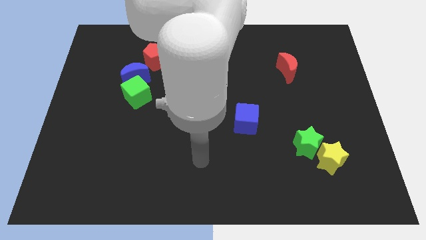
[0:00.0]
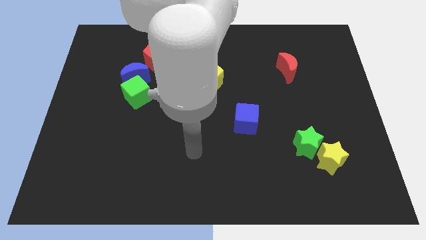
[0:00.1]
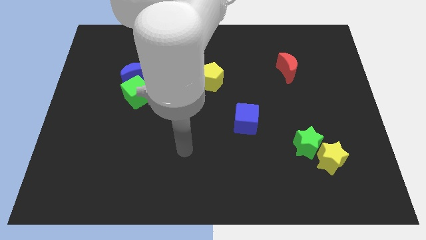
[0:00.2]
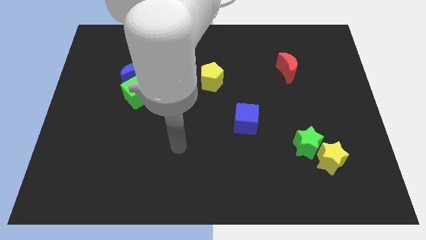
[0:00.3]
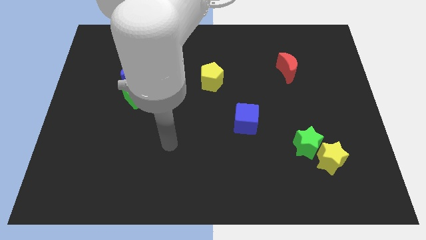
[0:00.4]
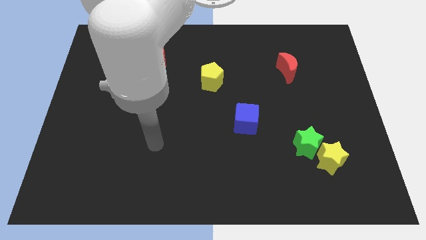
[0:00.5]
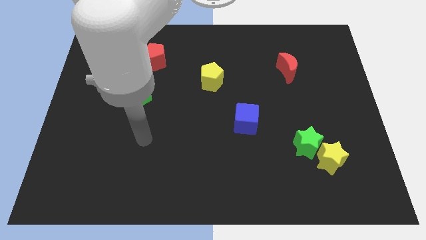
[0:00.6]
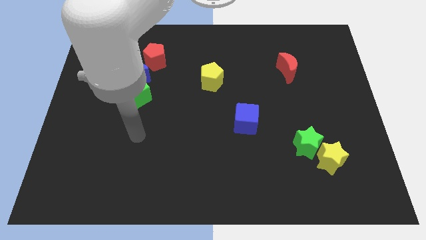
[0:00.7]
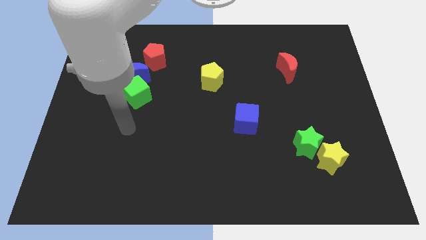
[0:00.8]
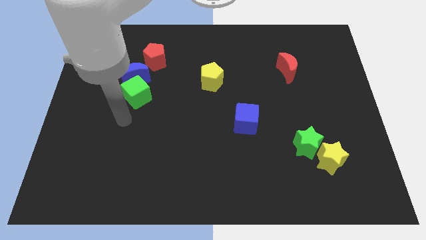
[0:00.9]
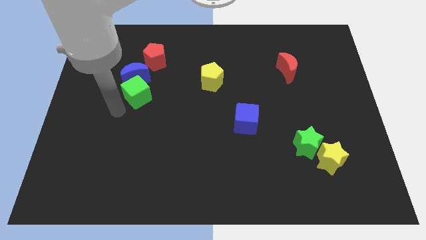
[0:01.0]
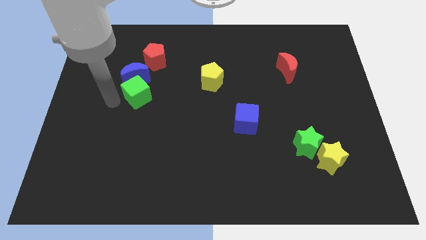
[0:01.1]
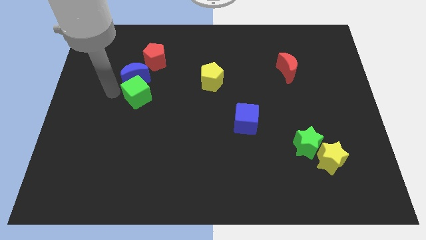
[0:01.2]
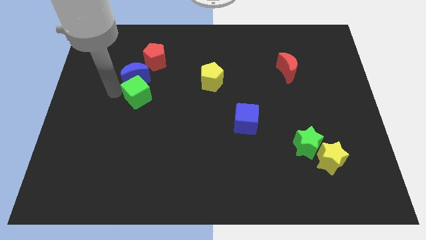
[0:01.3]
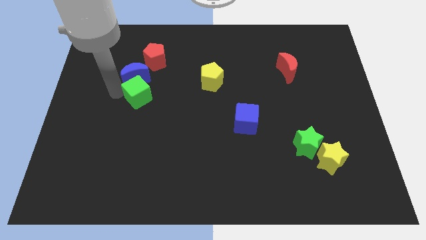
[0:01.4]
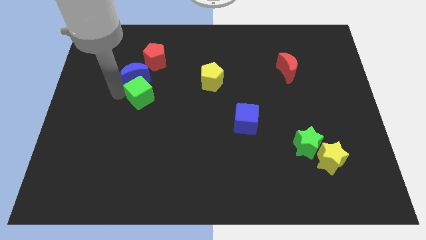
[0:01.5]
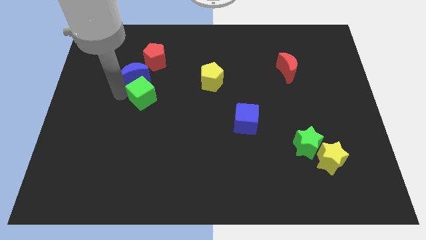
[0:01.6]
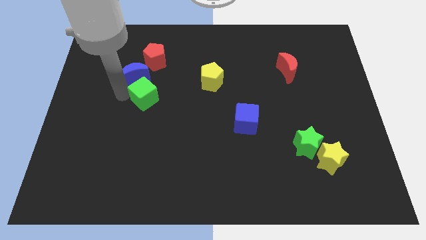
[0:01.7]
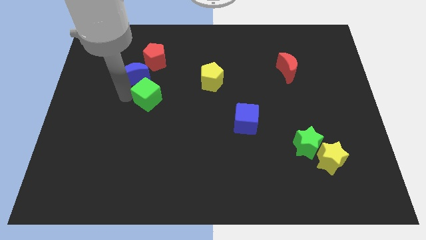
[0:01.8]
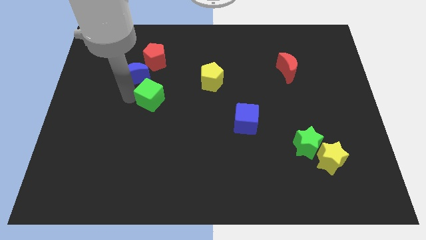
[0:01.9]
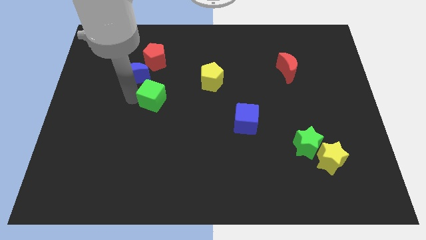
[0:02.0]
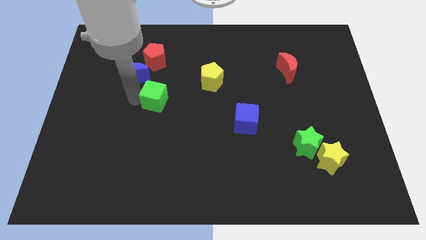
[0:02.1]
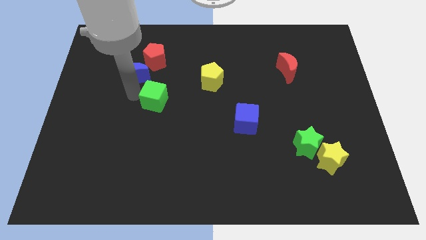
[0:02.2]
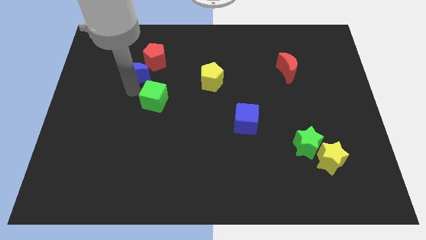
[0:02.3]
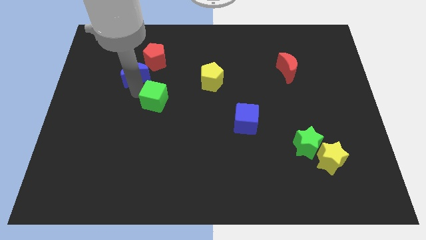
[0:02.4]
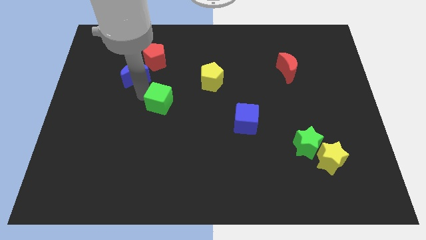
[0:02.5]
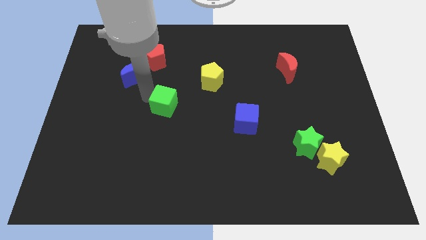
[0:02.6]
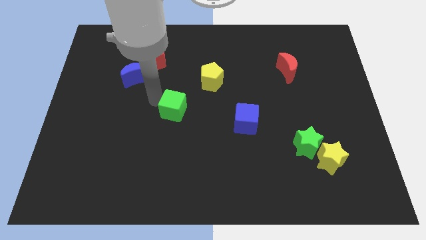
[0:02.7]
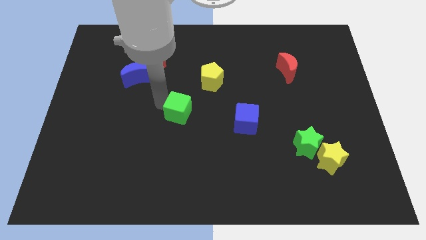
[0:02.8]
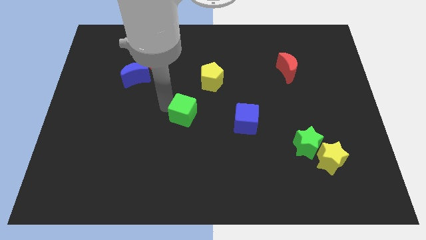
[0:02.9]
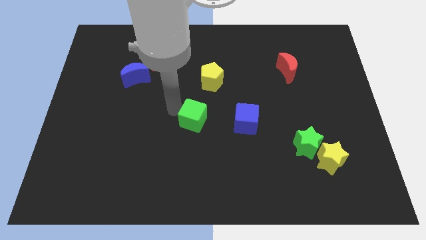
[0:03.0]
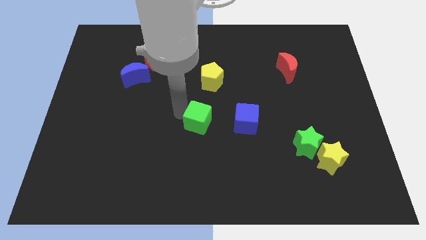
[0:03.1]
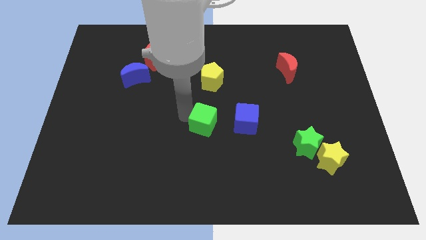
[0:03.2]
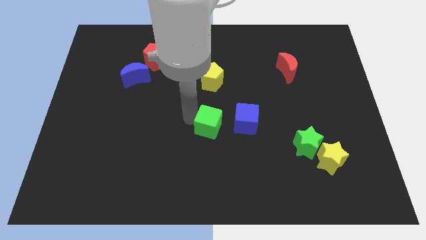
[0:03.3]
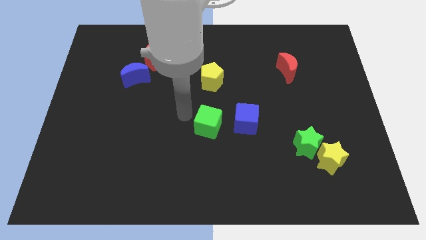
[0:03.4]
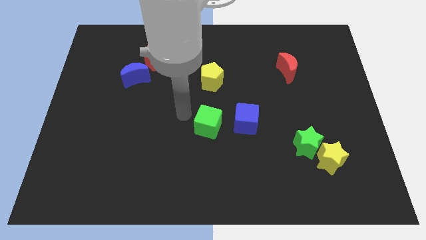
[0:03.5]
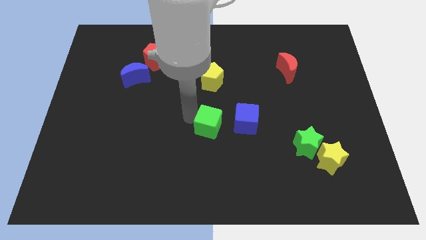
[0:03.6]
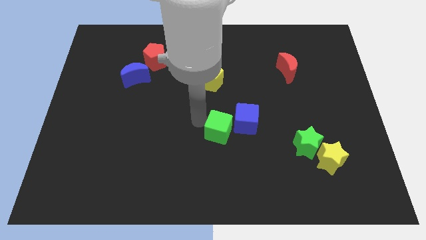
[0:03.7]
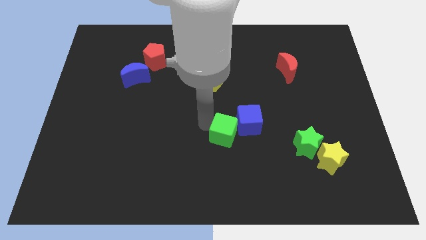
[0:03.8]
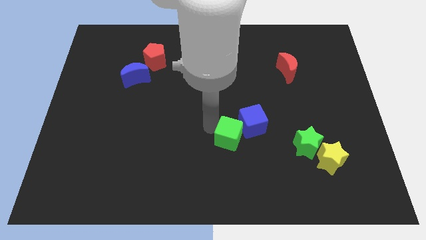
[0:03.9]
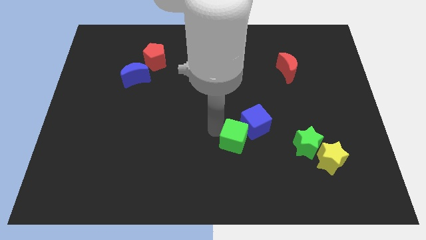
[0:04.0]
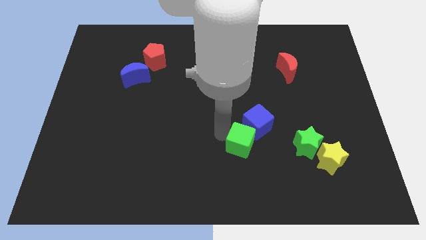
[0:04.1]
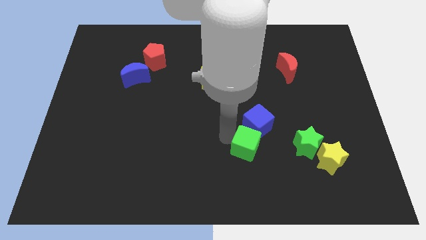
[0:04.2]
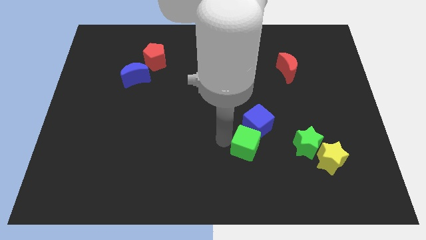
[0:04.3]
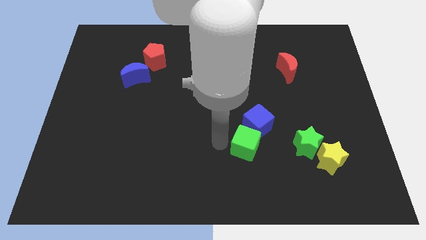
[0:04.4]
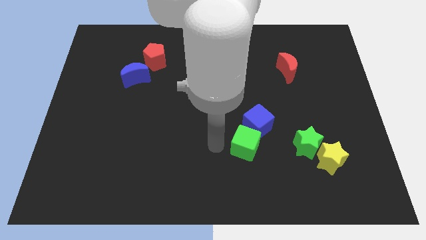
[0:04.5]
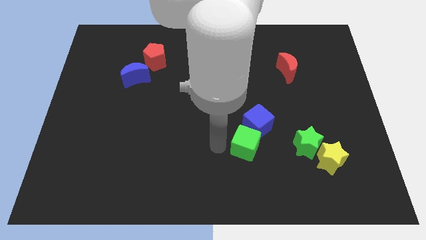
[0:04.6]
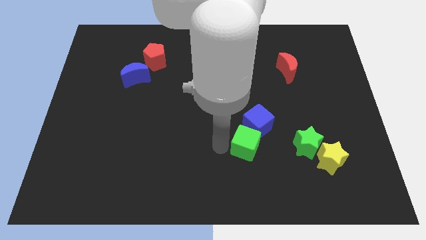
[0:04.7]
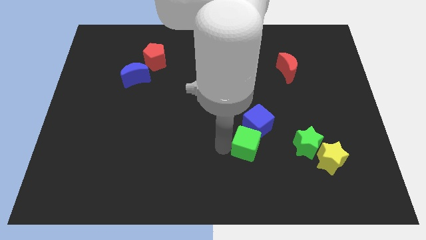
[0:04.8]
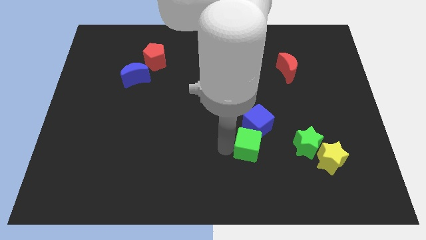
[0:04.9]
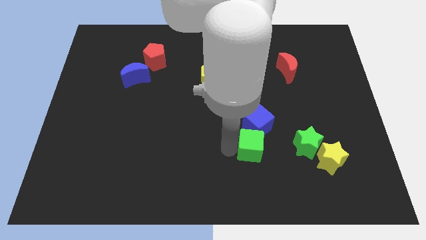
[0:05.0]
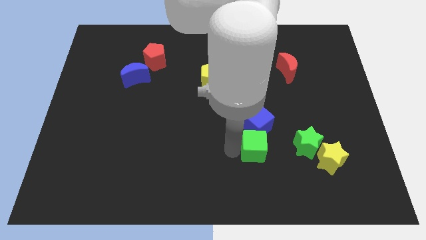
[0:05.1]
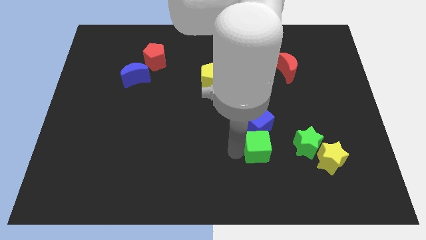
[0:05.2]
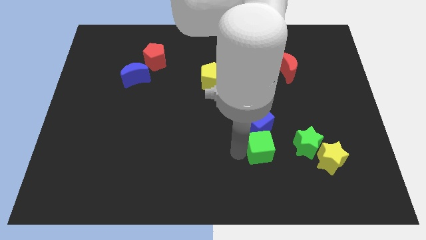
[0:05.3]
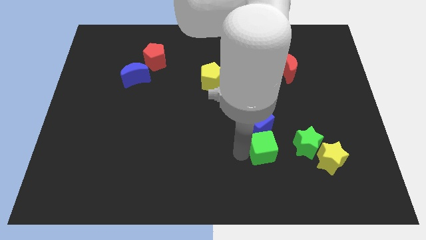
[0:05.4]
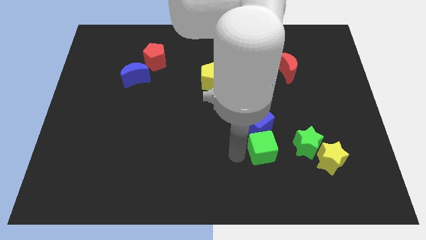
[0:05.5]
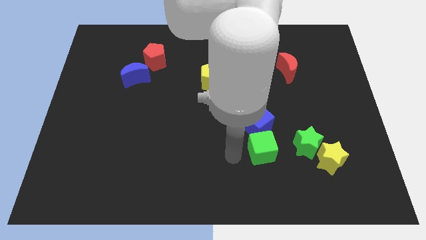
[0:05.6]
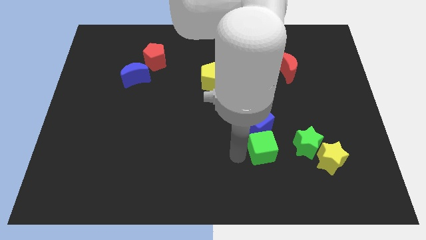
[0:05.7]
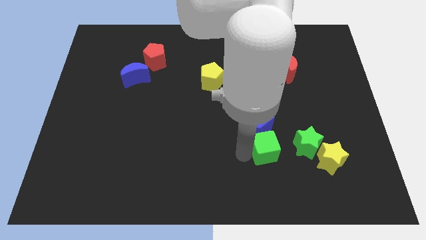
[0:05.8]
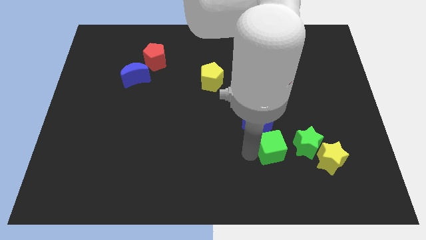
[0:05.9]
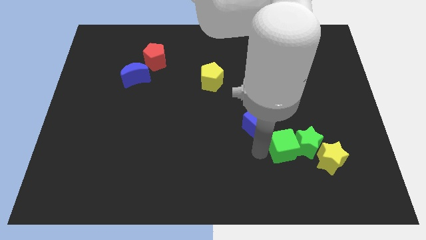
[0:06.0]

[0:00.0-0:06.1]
slide the green cube to the green star
